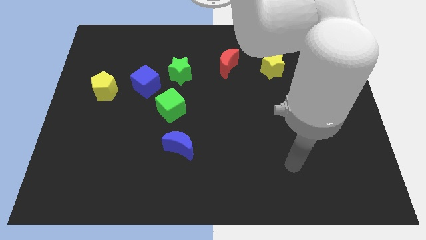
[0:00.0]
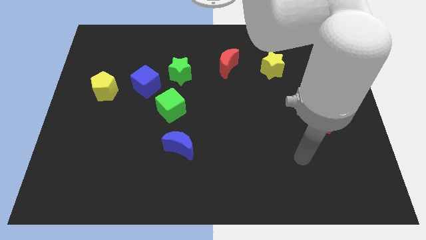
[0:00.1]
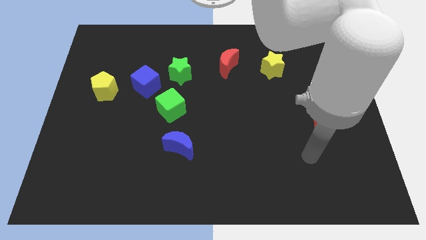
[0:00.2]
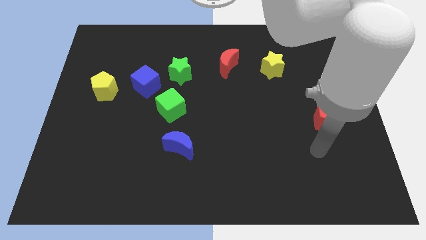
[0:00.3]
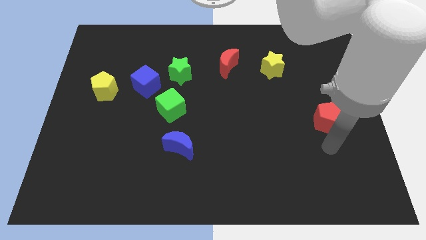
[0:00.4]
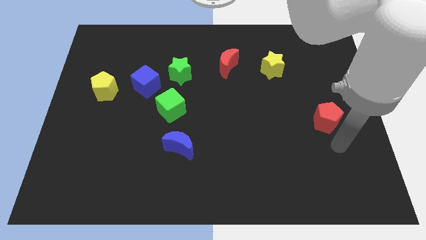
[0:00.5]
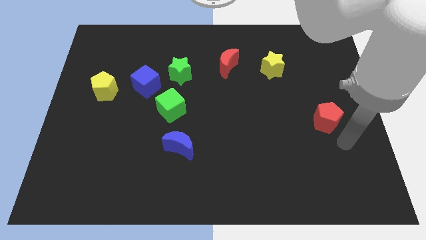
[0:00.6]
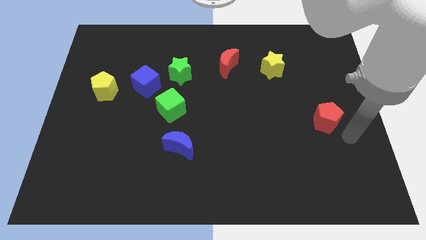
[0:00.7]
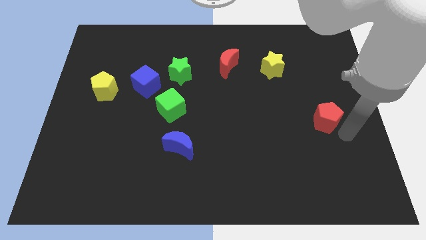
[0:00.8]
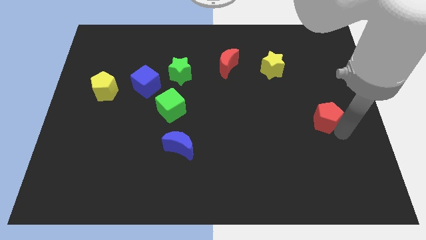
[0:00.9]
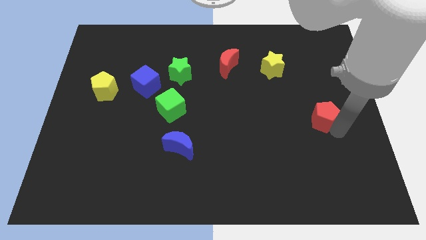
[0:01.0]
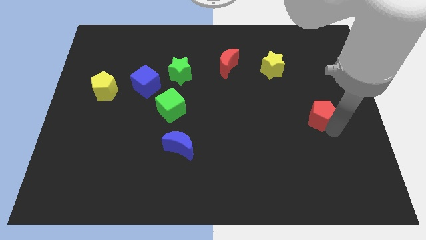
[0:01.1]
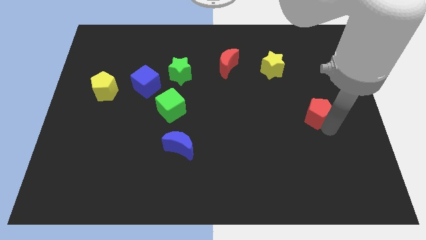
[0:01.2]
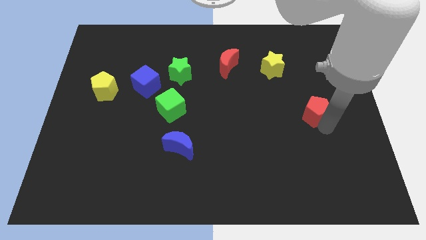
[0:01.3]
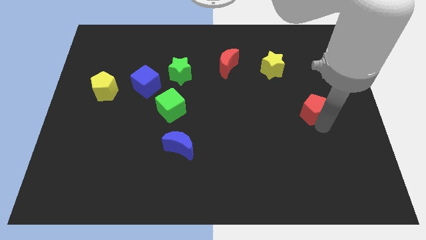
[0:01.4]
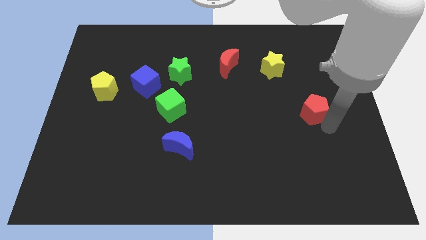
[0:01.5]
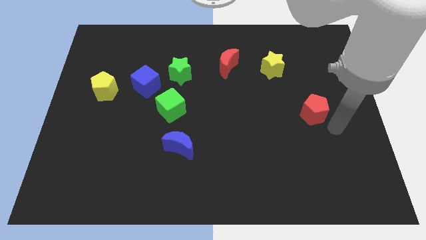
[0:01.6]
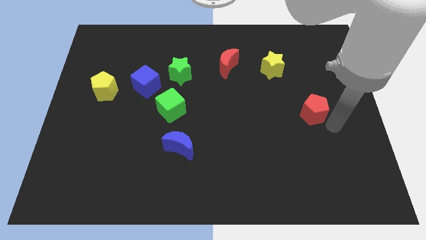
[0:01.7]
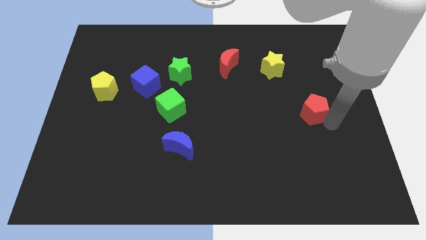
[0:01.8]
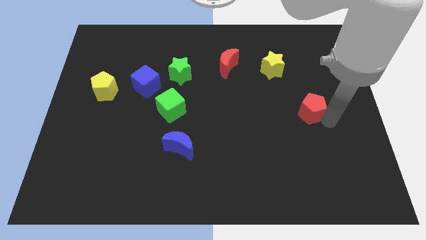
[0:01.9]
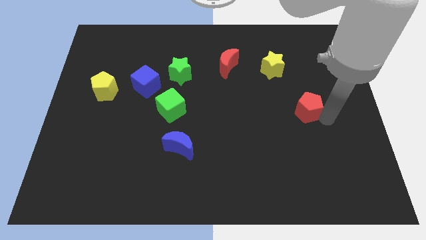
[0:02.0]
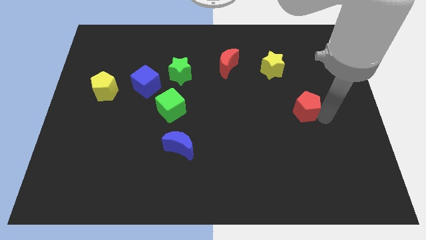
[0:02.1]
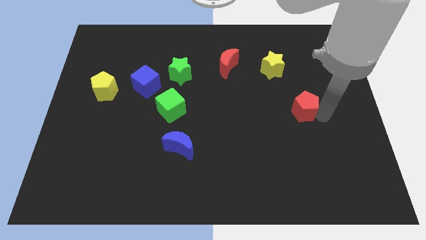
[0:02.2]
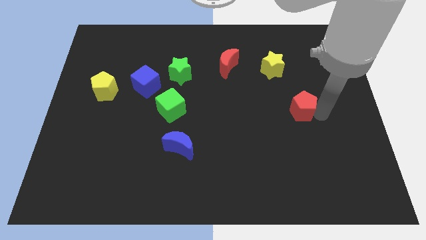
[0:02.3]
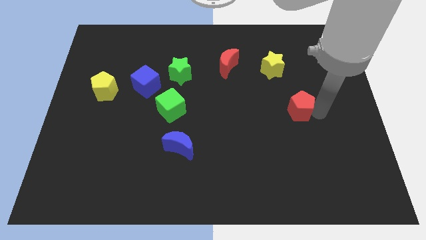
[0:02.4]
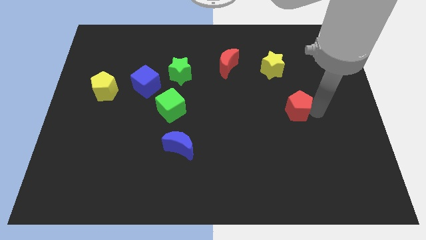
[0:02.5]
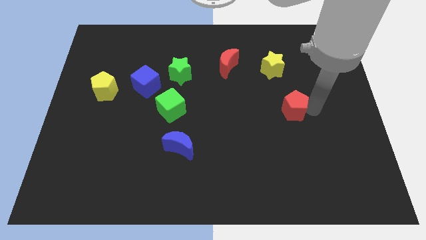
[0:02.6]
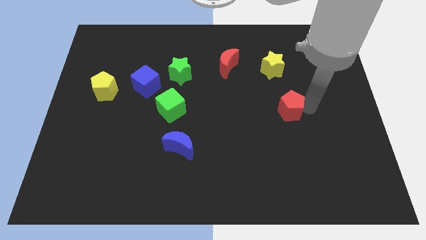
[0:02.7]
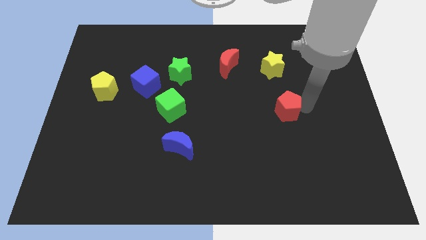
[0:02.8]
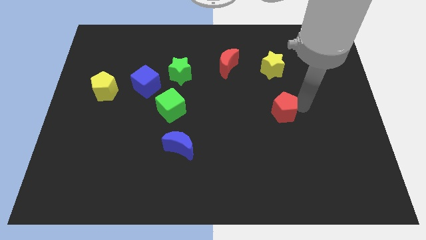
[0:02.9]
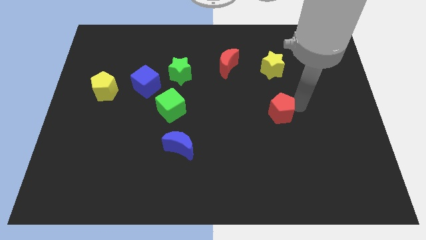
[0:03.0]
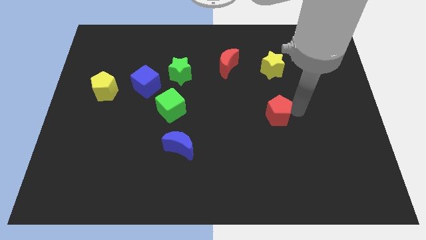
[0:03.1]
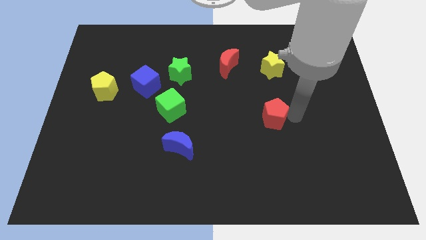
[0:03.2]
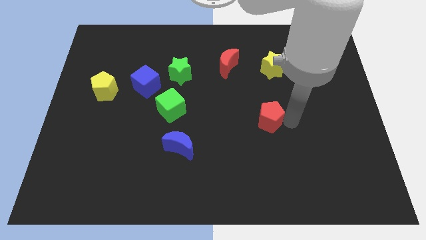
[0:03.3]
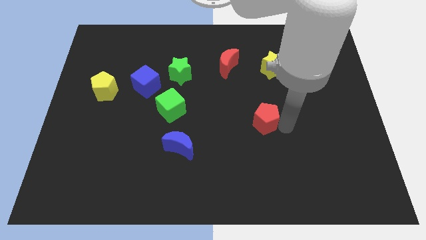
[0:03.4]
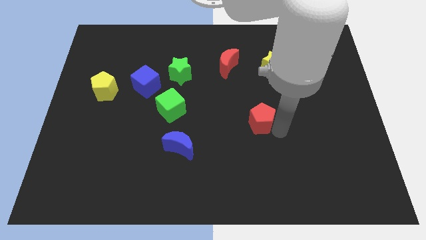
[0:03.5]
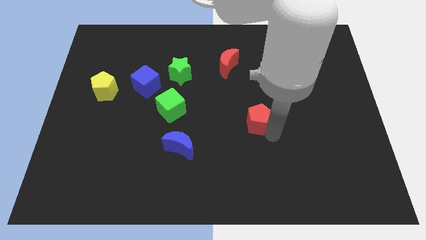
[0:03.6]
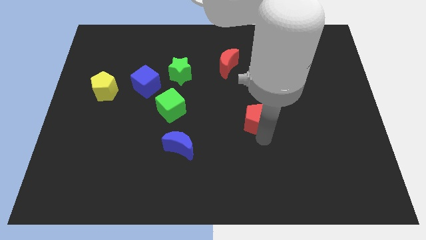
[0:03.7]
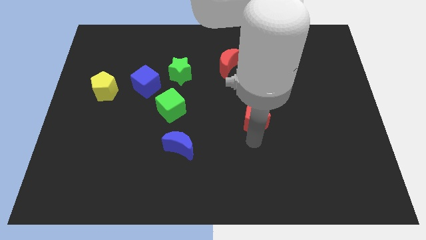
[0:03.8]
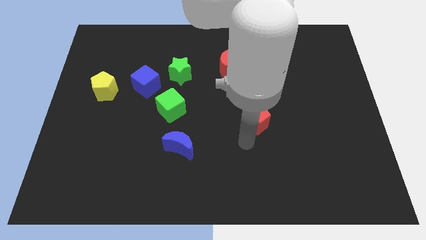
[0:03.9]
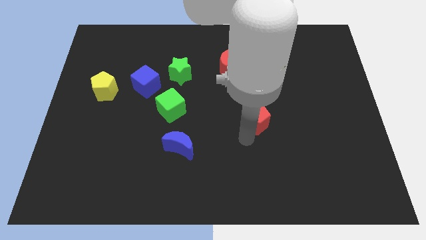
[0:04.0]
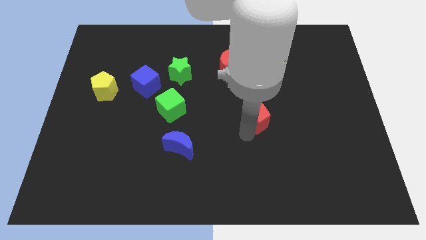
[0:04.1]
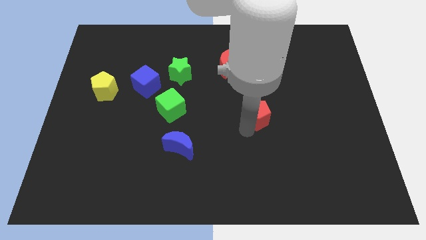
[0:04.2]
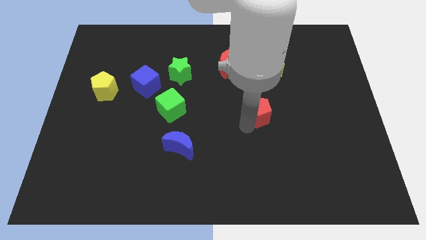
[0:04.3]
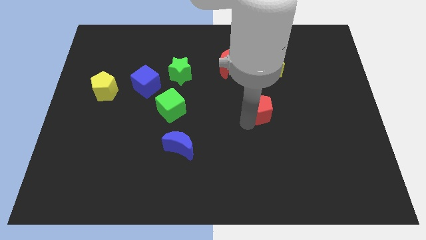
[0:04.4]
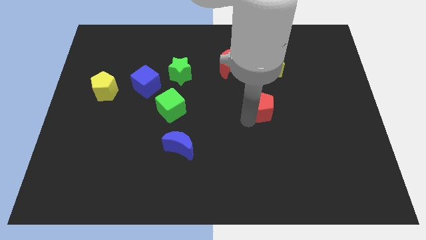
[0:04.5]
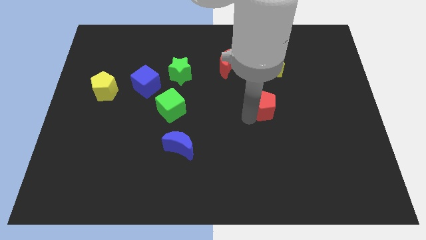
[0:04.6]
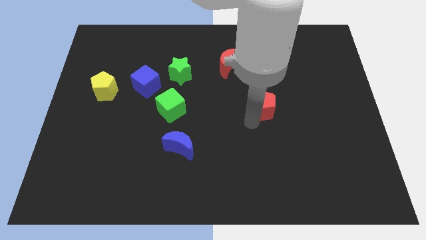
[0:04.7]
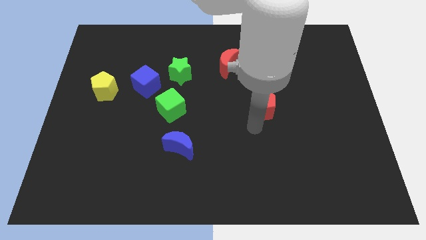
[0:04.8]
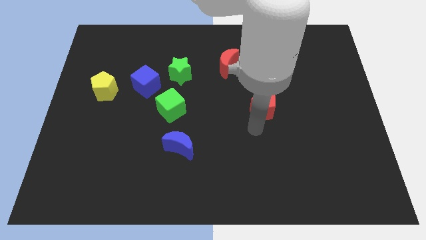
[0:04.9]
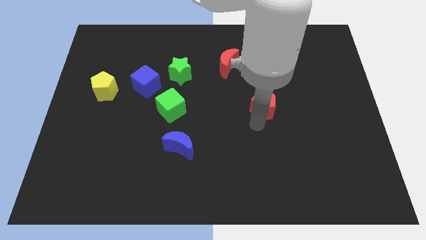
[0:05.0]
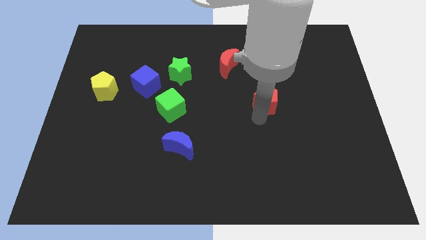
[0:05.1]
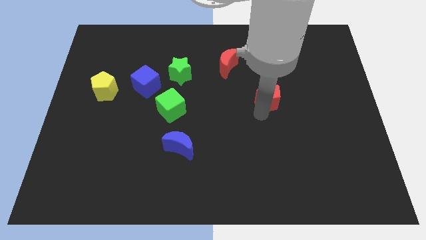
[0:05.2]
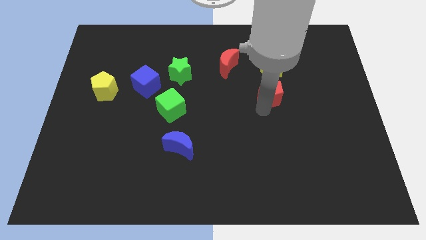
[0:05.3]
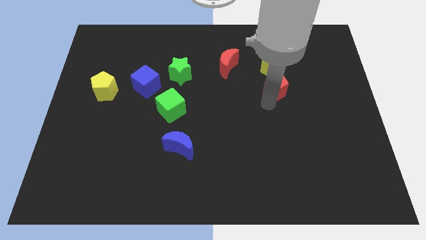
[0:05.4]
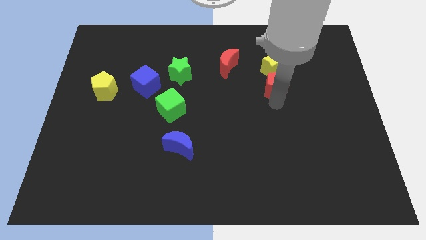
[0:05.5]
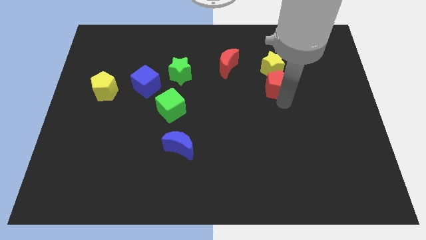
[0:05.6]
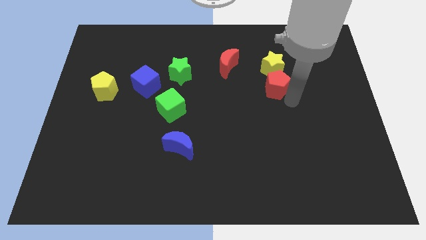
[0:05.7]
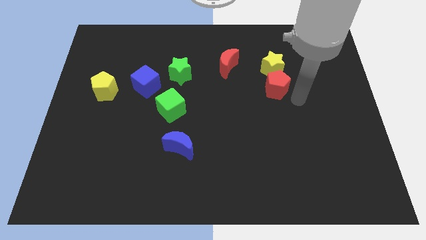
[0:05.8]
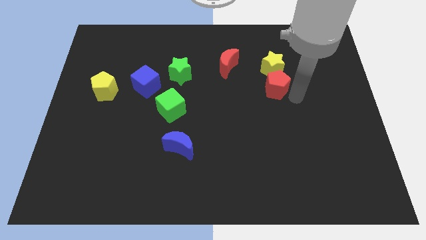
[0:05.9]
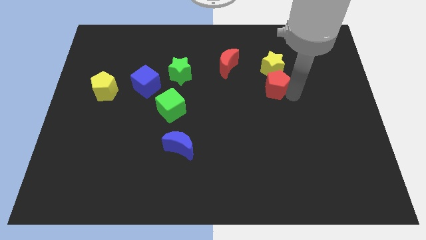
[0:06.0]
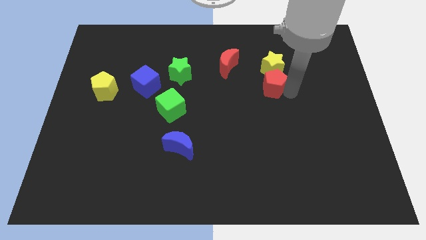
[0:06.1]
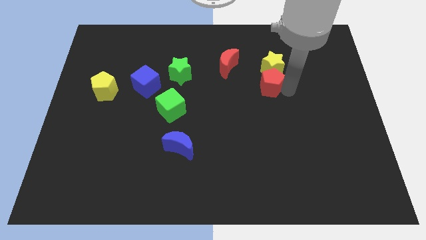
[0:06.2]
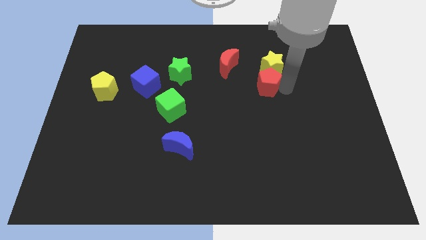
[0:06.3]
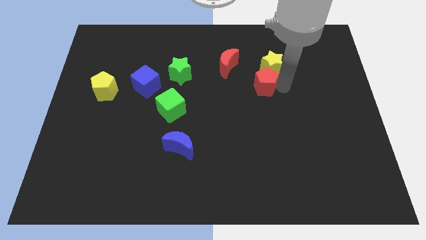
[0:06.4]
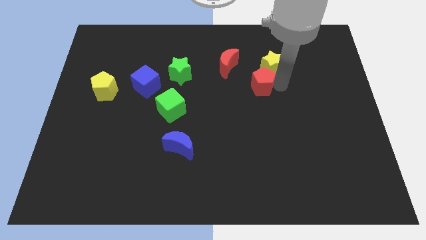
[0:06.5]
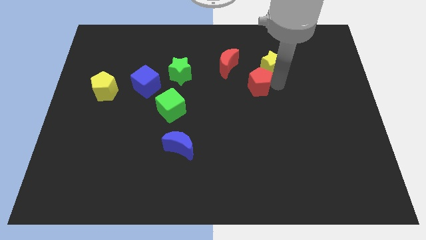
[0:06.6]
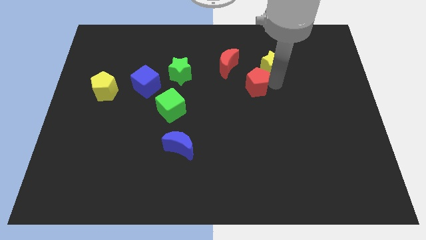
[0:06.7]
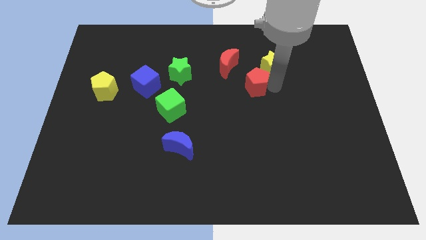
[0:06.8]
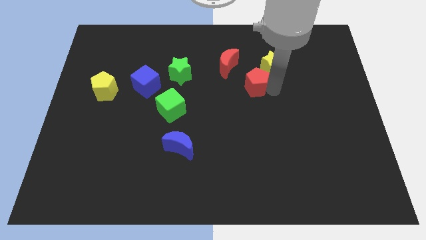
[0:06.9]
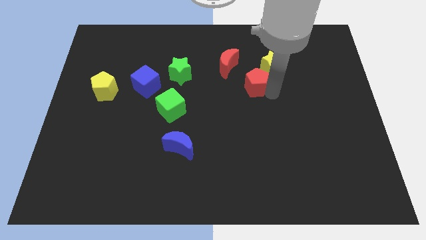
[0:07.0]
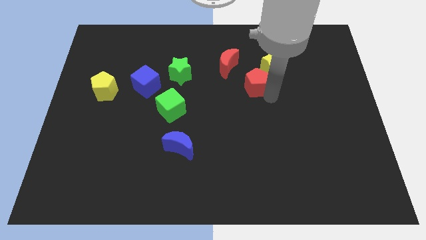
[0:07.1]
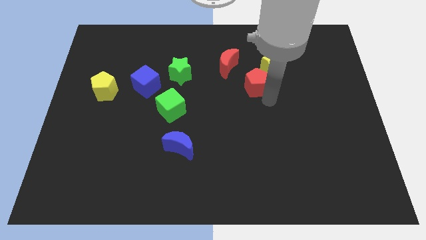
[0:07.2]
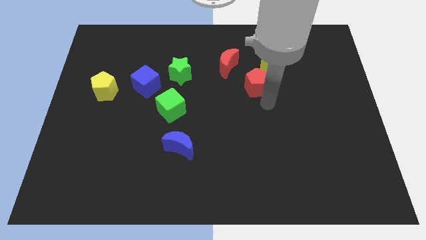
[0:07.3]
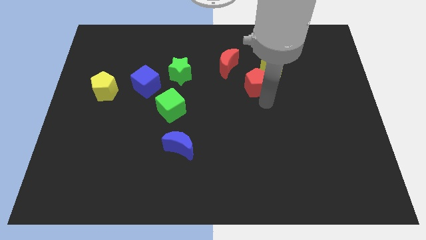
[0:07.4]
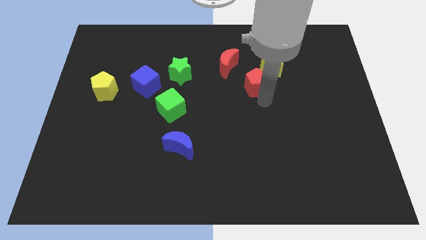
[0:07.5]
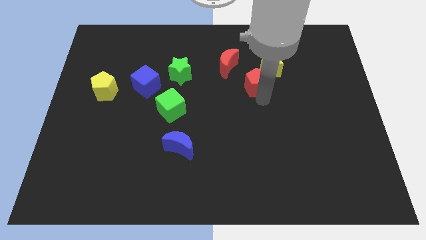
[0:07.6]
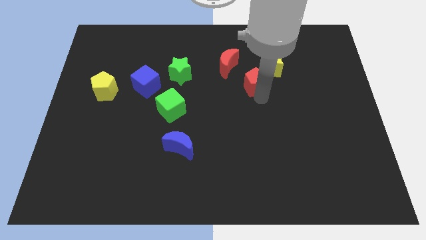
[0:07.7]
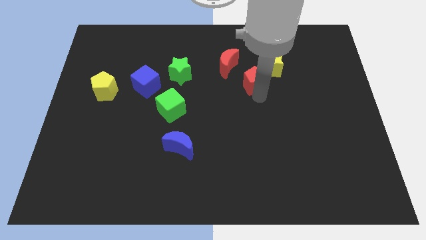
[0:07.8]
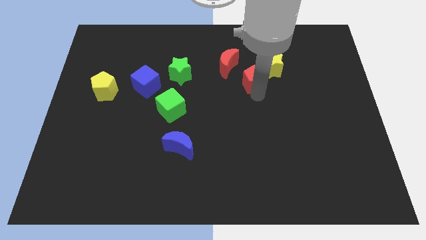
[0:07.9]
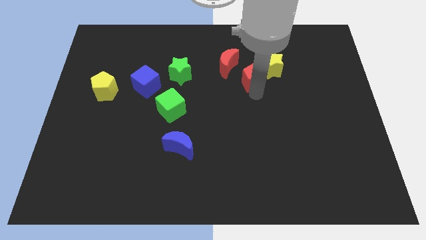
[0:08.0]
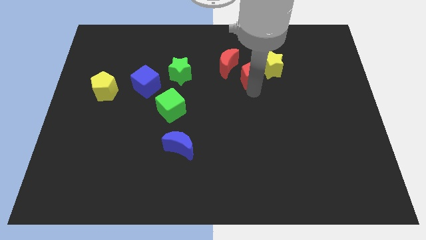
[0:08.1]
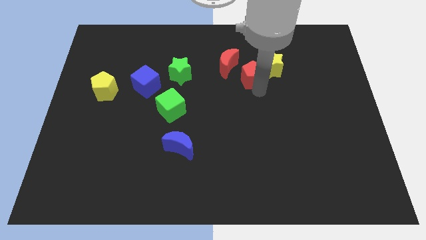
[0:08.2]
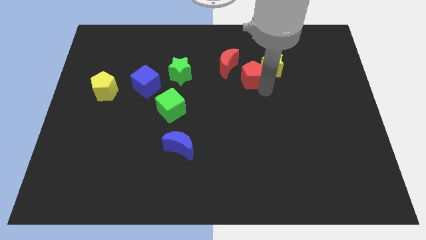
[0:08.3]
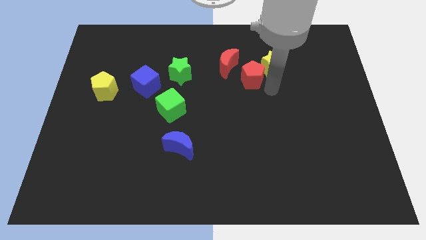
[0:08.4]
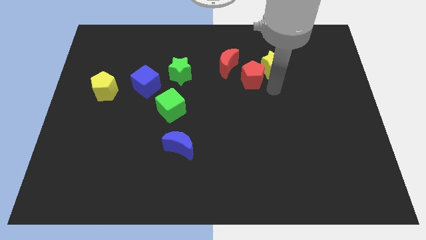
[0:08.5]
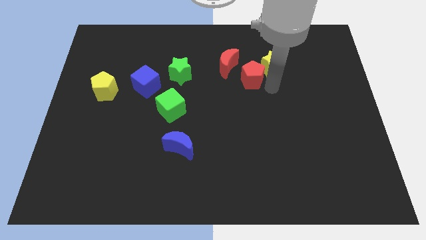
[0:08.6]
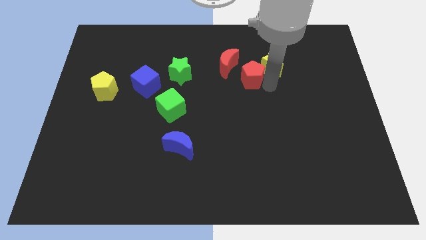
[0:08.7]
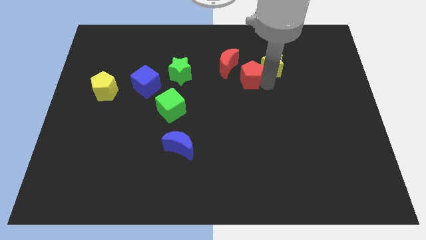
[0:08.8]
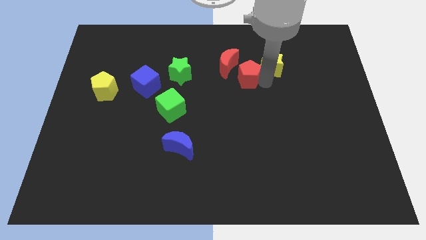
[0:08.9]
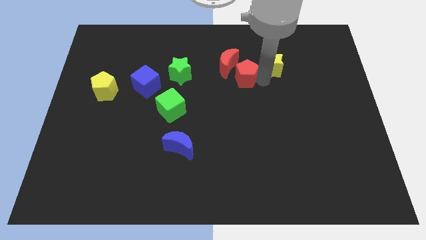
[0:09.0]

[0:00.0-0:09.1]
put the red pentagon towards the red moon
